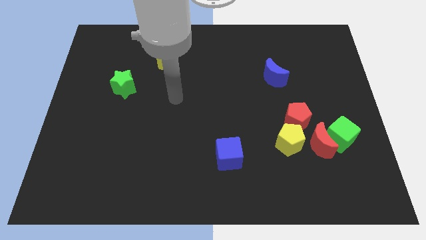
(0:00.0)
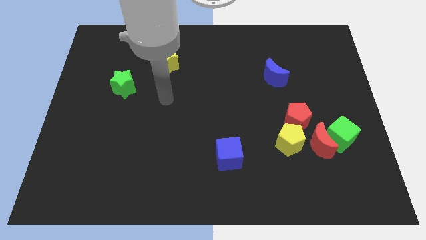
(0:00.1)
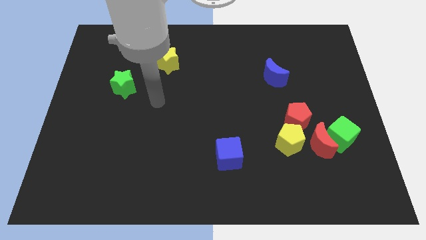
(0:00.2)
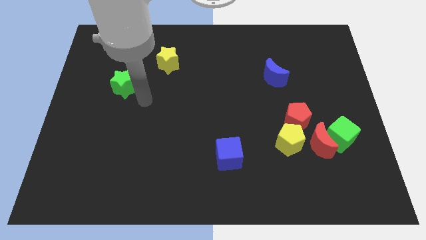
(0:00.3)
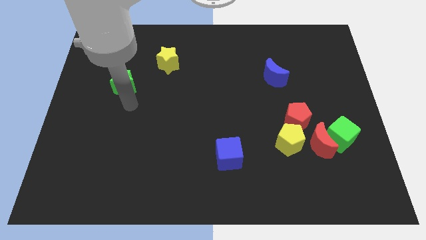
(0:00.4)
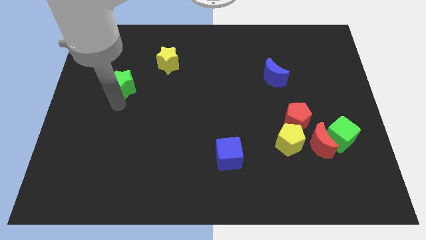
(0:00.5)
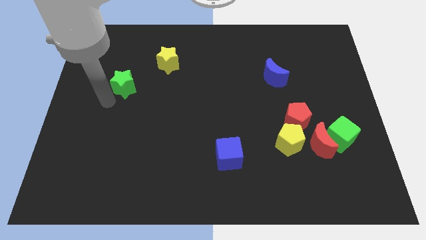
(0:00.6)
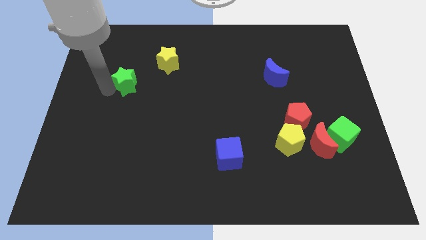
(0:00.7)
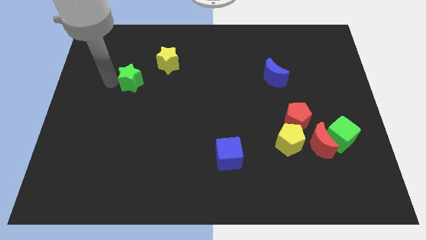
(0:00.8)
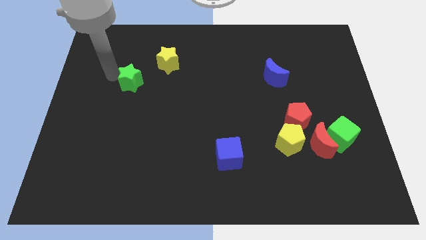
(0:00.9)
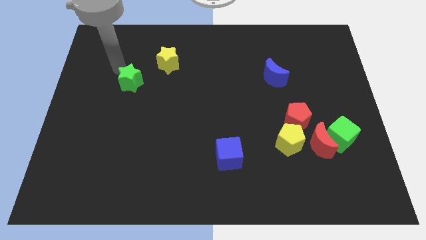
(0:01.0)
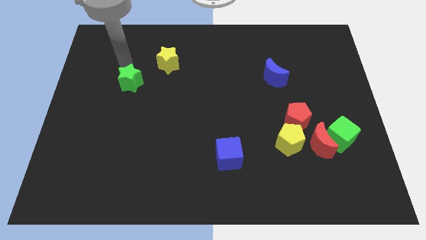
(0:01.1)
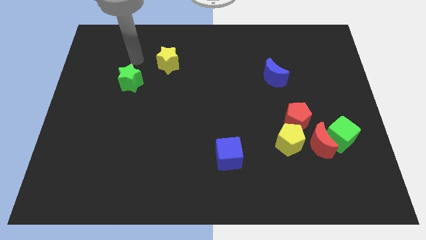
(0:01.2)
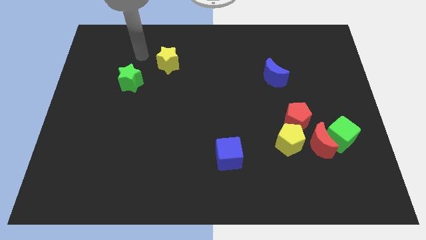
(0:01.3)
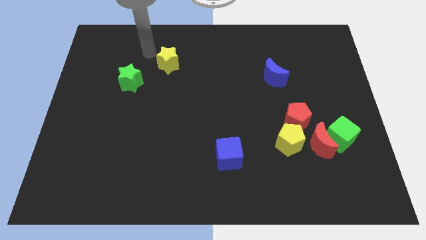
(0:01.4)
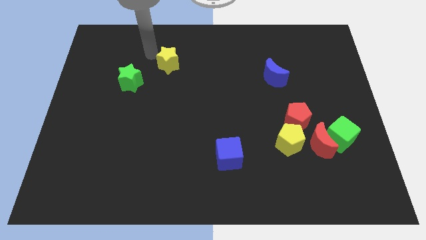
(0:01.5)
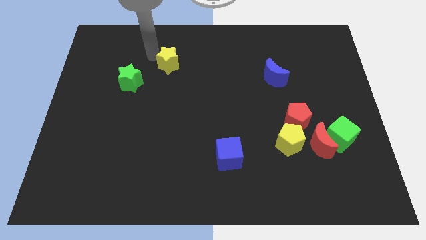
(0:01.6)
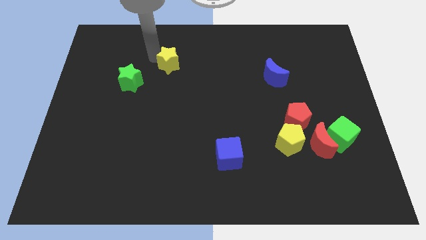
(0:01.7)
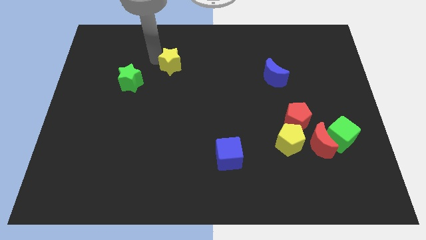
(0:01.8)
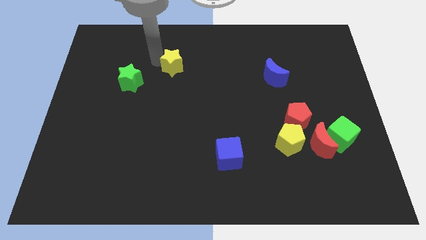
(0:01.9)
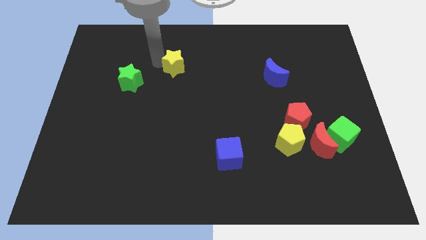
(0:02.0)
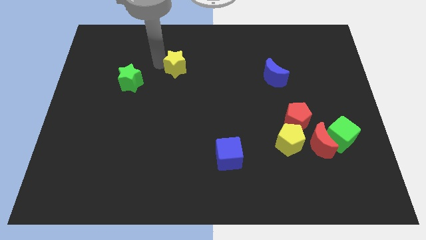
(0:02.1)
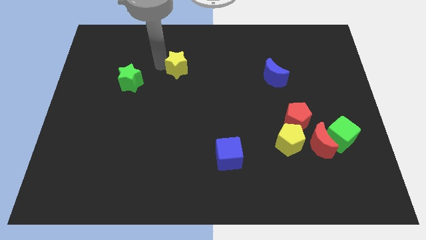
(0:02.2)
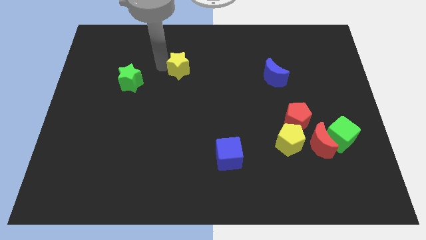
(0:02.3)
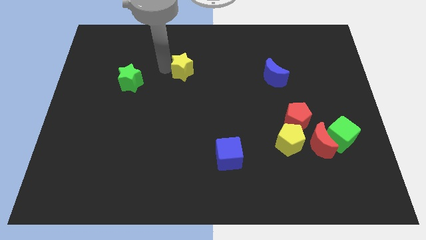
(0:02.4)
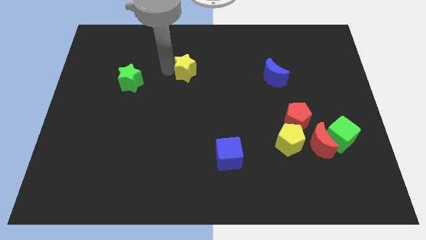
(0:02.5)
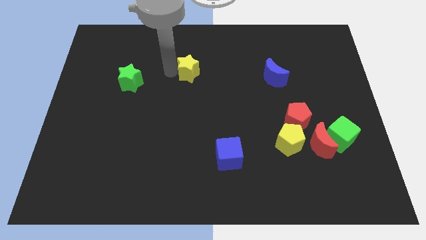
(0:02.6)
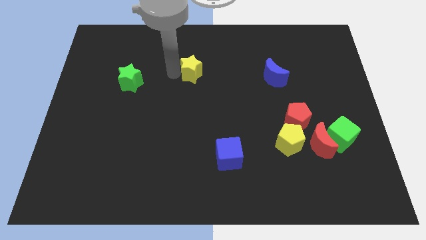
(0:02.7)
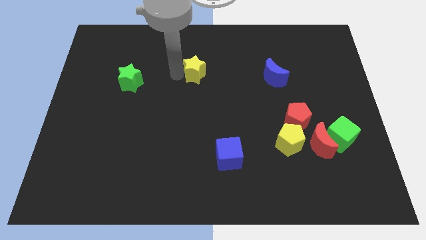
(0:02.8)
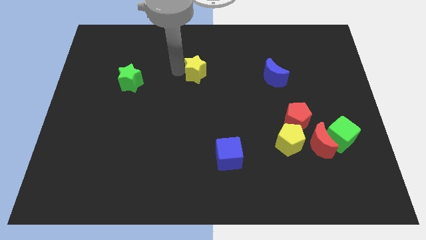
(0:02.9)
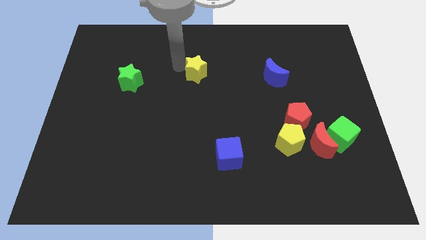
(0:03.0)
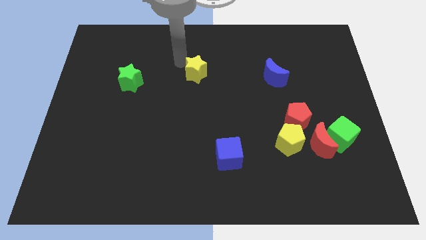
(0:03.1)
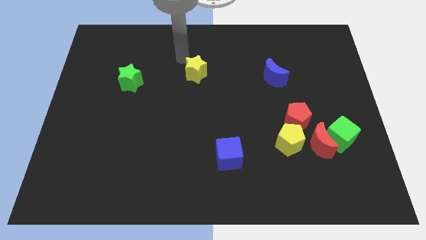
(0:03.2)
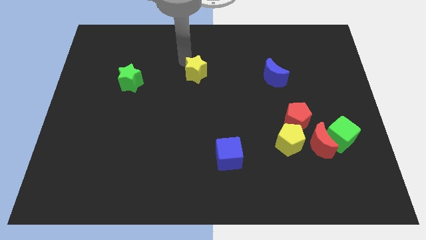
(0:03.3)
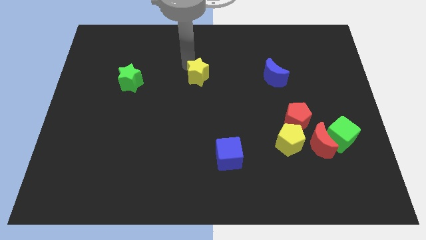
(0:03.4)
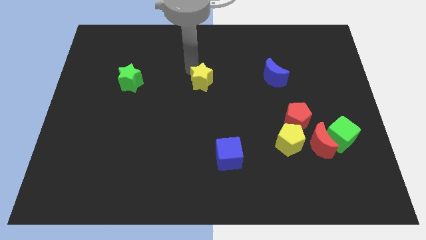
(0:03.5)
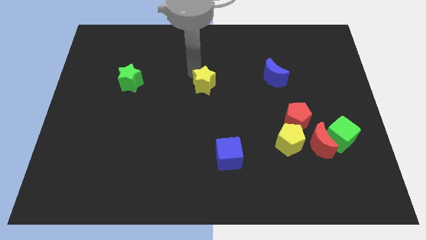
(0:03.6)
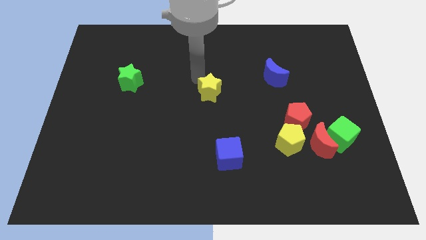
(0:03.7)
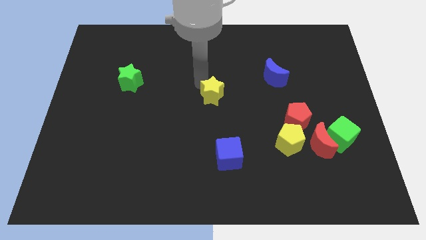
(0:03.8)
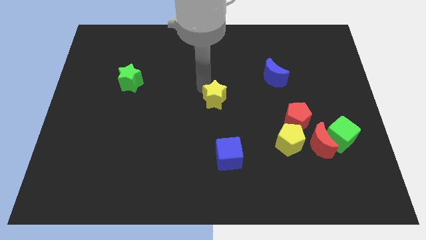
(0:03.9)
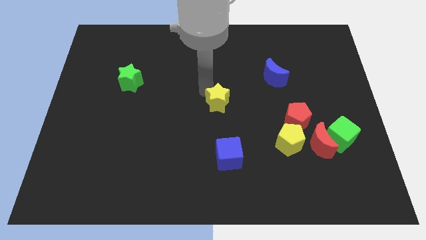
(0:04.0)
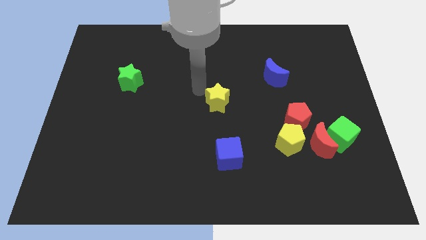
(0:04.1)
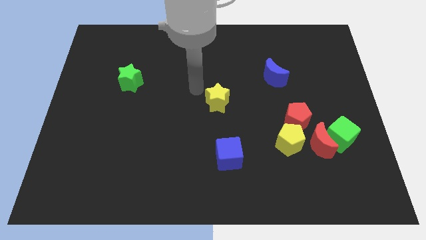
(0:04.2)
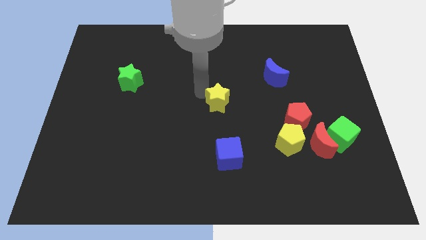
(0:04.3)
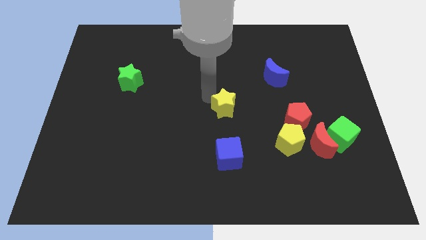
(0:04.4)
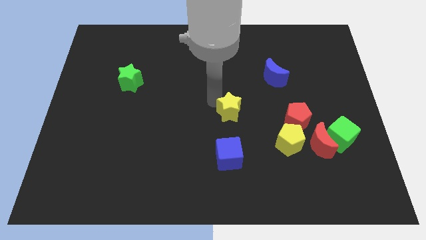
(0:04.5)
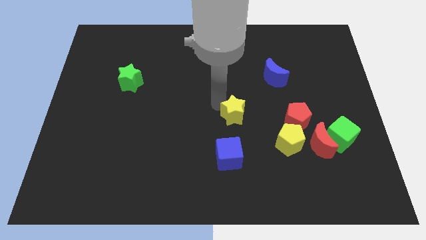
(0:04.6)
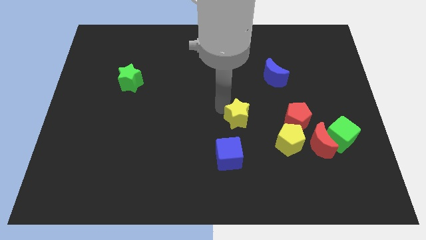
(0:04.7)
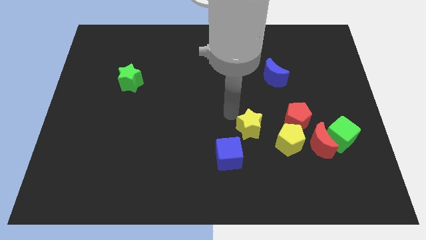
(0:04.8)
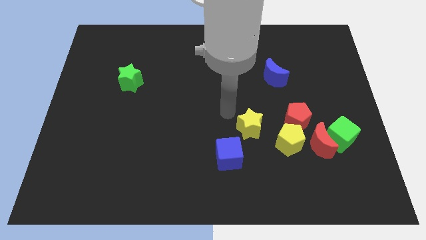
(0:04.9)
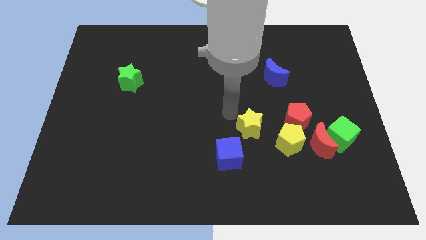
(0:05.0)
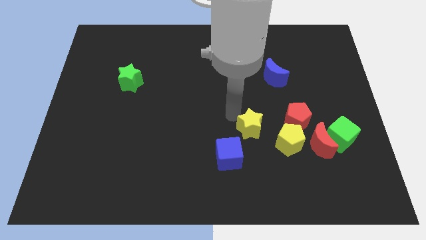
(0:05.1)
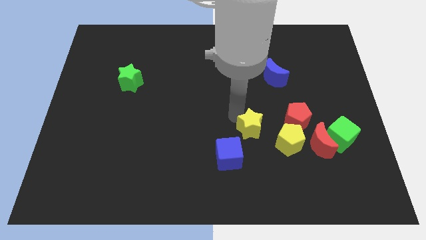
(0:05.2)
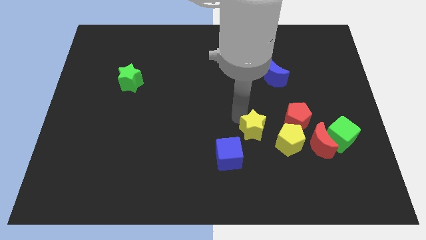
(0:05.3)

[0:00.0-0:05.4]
move the yellow star to the left of the red moon

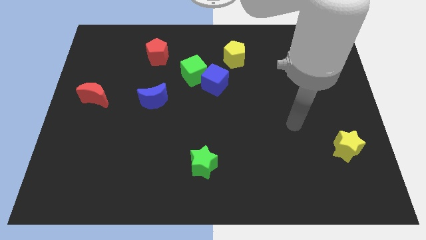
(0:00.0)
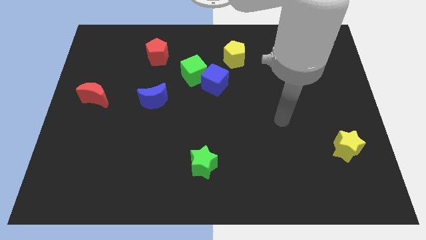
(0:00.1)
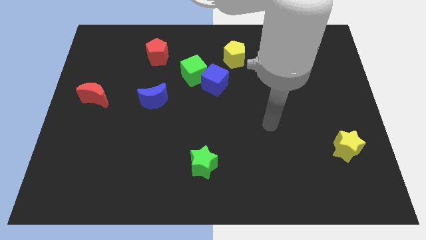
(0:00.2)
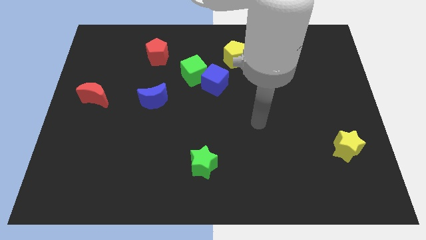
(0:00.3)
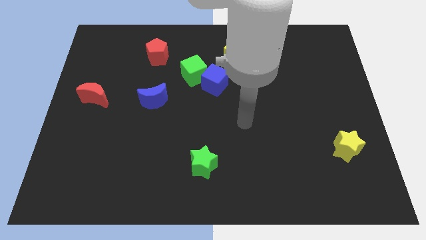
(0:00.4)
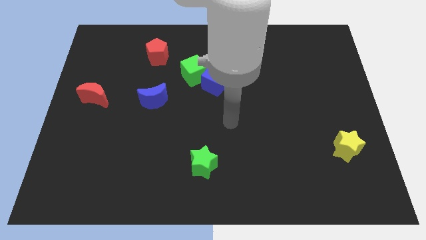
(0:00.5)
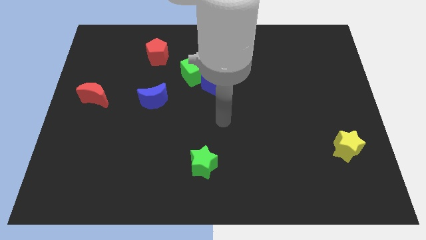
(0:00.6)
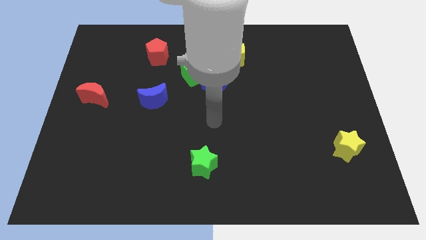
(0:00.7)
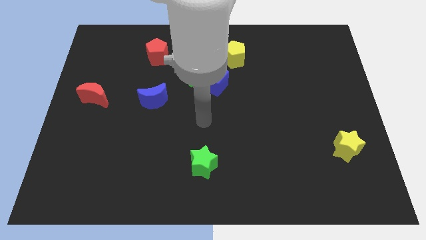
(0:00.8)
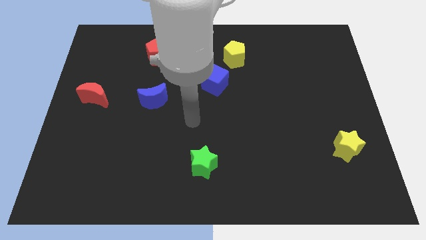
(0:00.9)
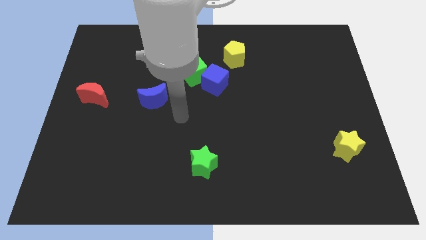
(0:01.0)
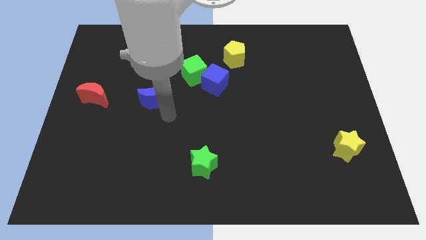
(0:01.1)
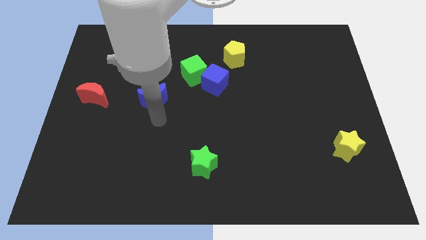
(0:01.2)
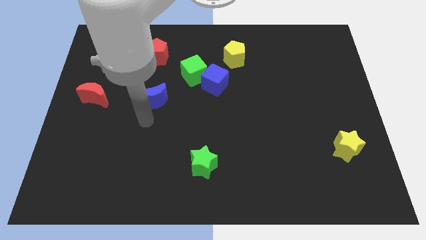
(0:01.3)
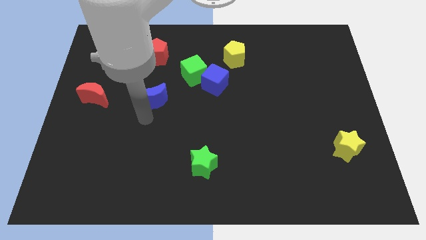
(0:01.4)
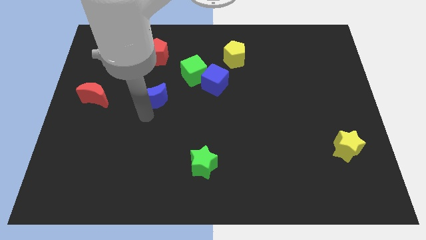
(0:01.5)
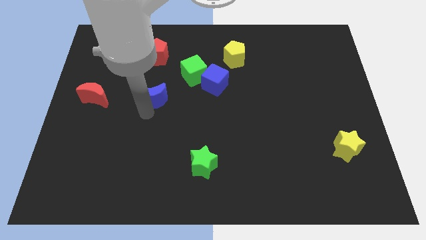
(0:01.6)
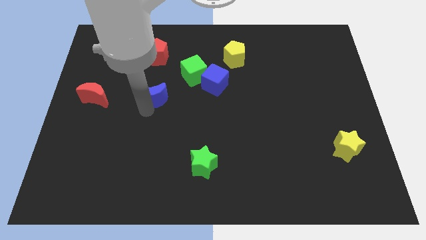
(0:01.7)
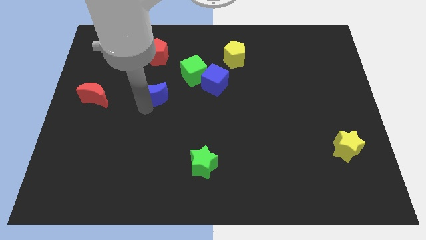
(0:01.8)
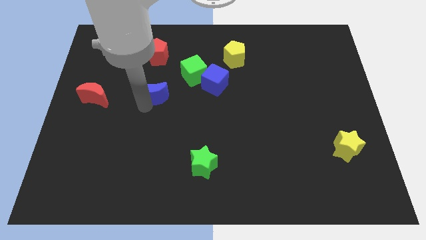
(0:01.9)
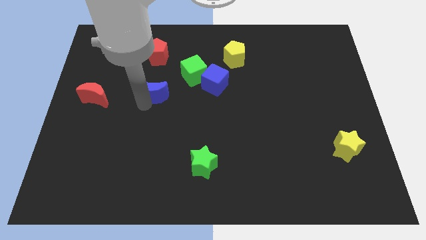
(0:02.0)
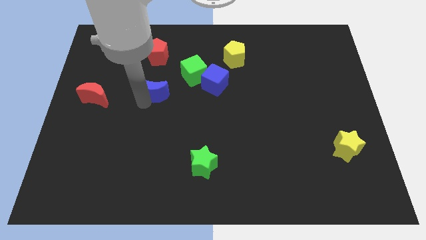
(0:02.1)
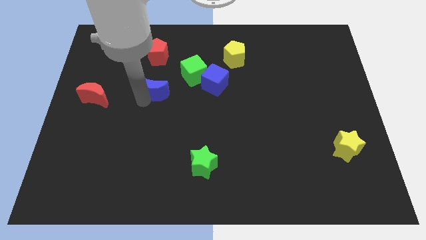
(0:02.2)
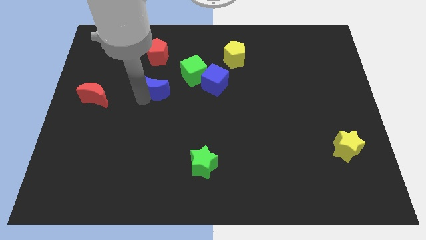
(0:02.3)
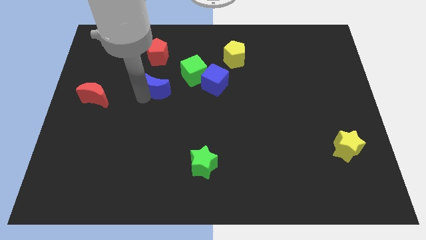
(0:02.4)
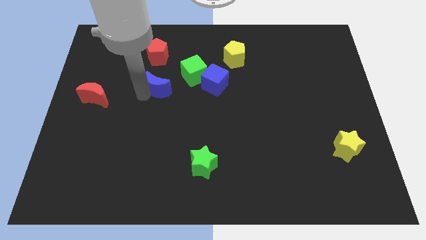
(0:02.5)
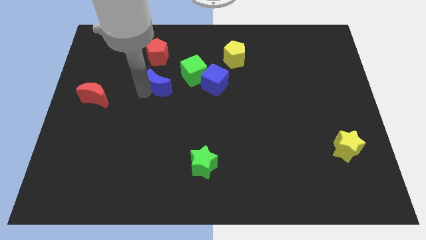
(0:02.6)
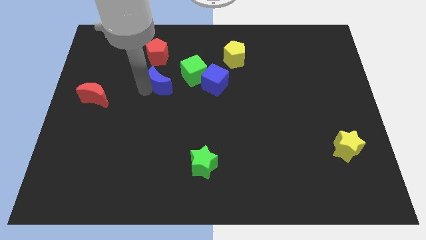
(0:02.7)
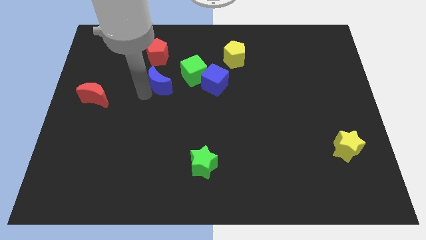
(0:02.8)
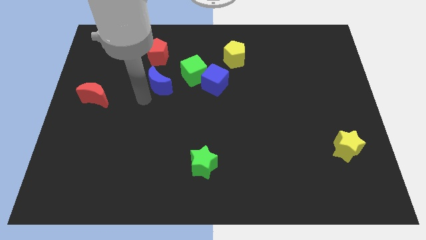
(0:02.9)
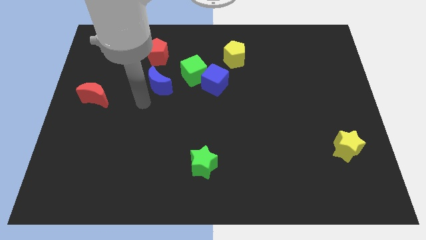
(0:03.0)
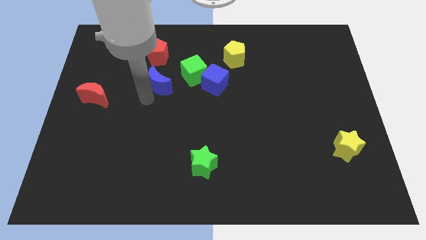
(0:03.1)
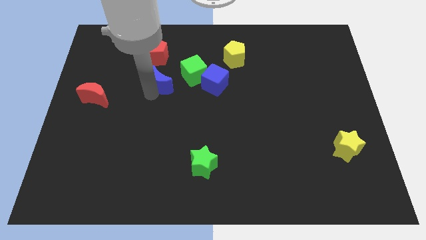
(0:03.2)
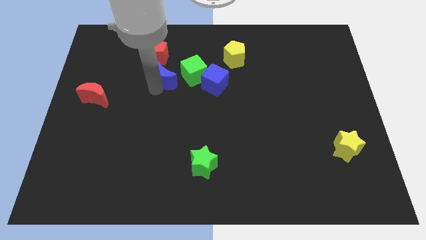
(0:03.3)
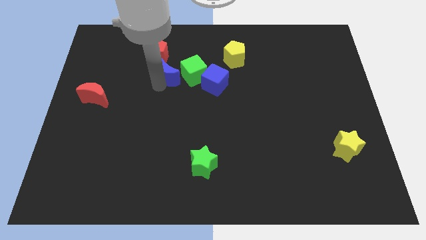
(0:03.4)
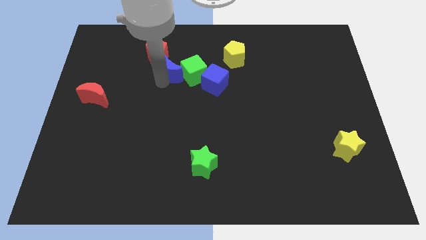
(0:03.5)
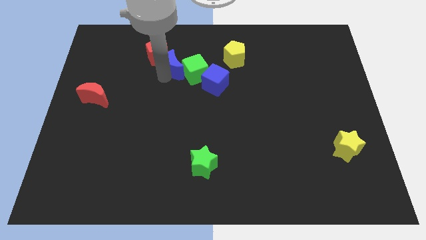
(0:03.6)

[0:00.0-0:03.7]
move the blue moon to the top left side of the blue cube
